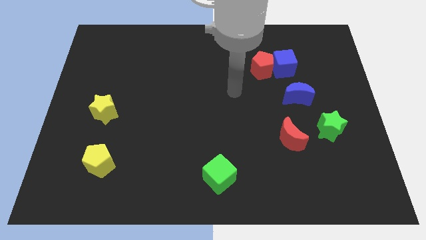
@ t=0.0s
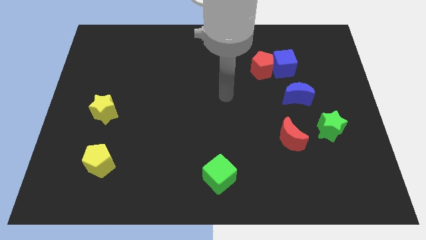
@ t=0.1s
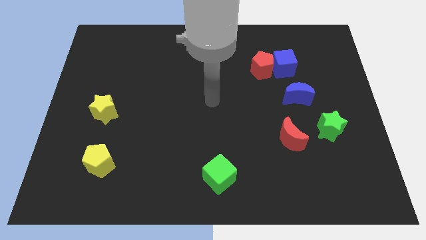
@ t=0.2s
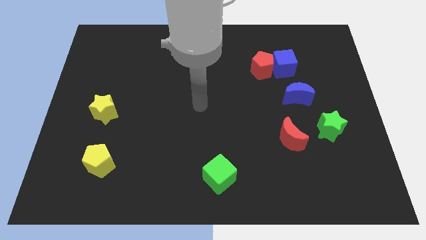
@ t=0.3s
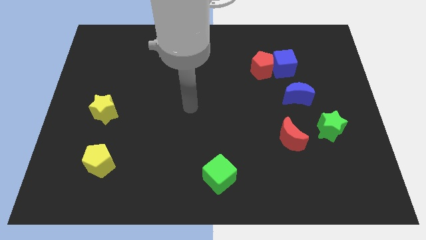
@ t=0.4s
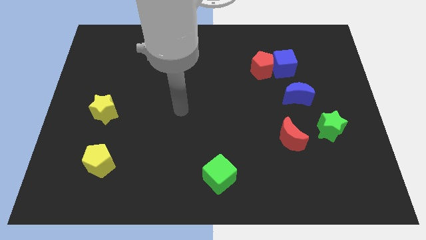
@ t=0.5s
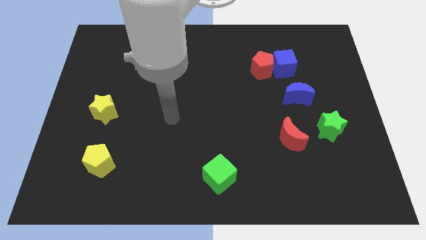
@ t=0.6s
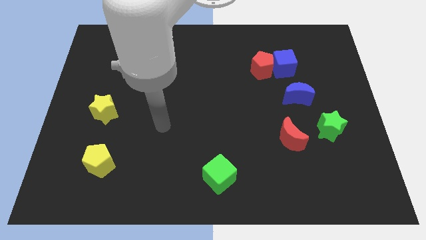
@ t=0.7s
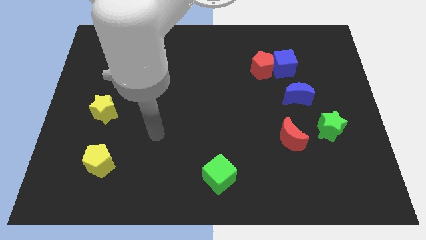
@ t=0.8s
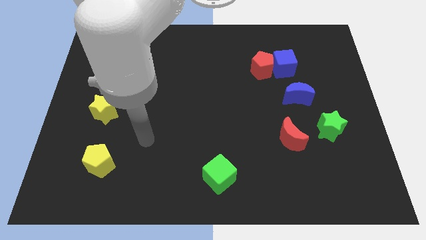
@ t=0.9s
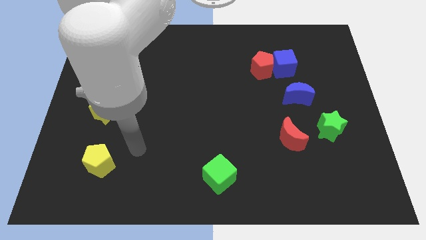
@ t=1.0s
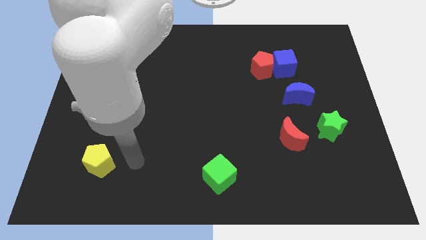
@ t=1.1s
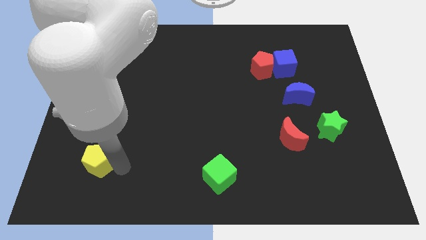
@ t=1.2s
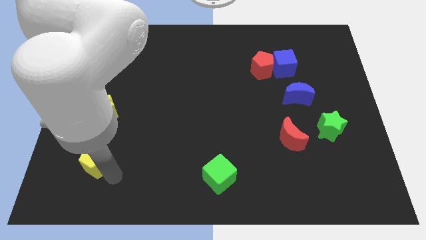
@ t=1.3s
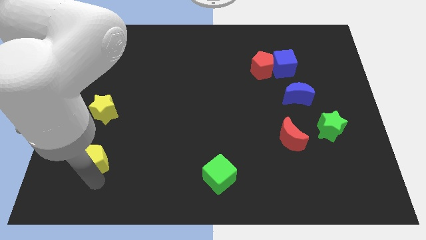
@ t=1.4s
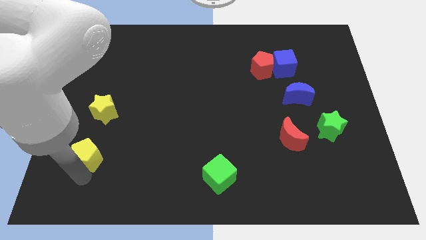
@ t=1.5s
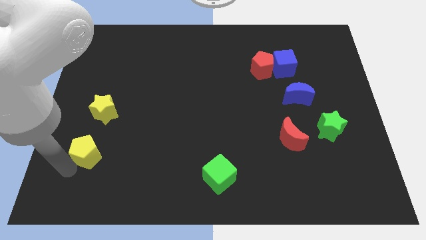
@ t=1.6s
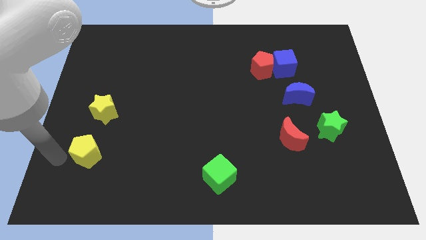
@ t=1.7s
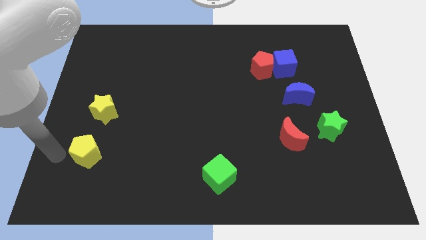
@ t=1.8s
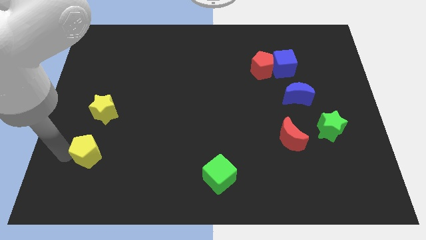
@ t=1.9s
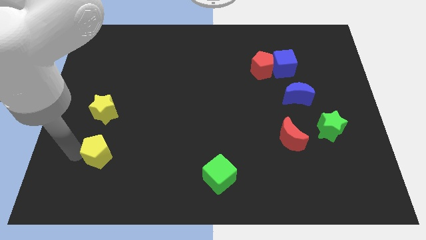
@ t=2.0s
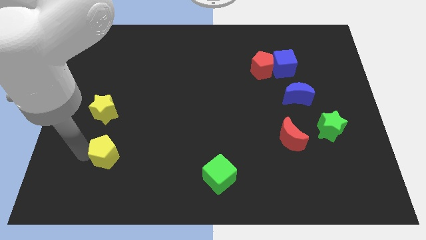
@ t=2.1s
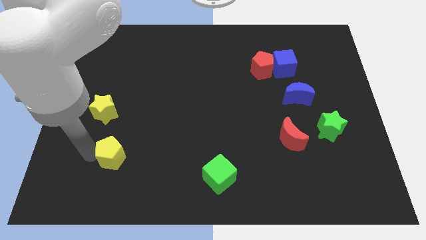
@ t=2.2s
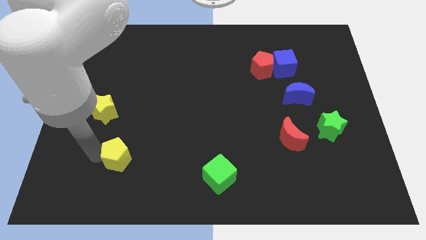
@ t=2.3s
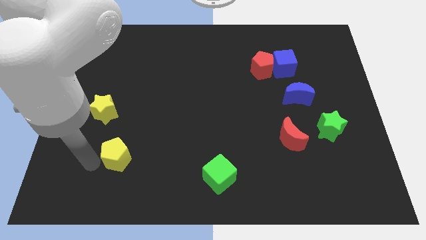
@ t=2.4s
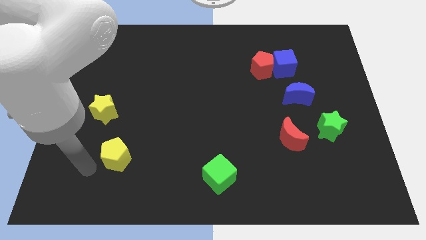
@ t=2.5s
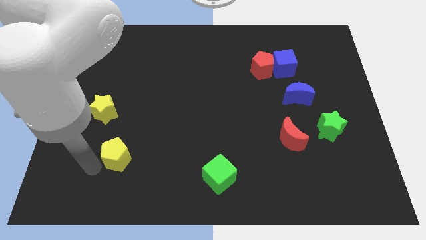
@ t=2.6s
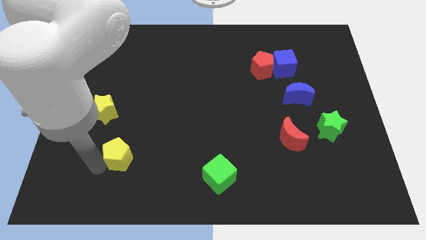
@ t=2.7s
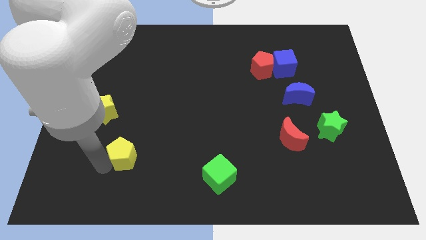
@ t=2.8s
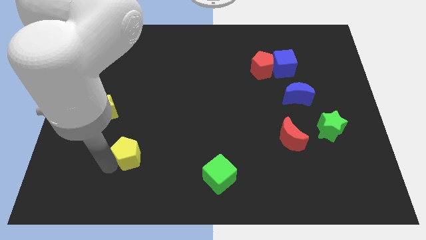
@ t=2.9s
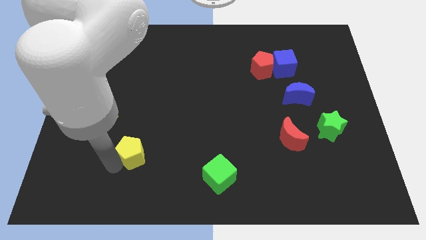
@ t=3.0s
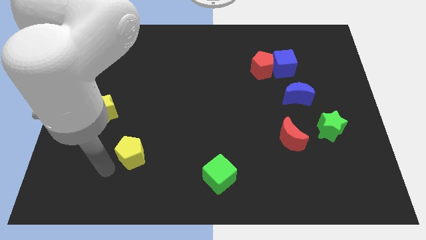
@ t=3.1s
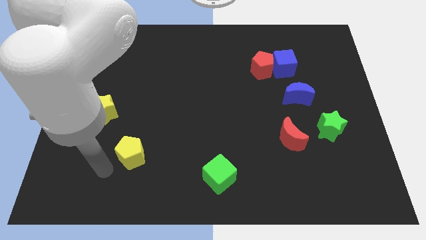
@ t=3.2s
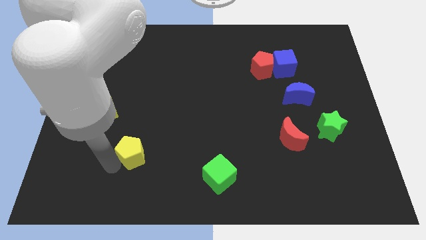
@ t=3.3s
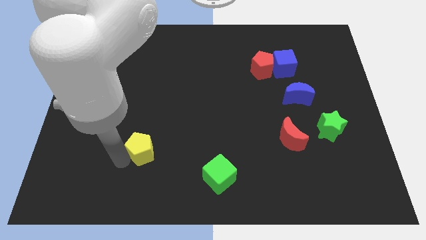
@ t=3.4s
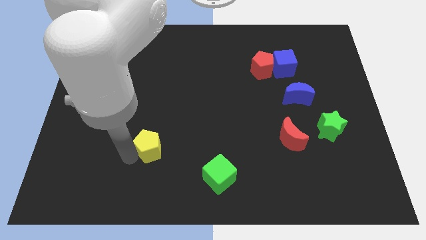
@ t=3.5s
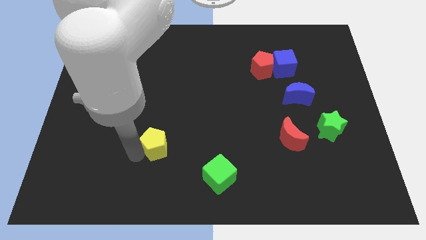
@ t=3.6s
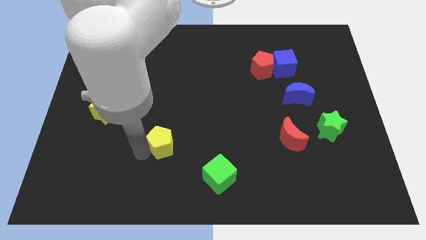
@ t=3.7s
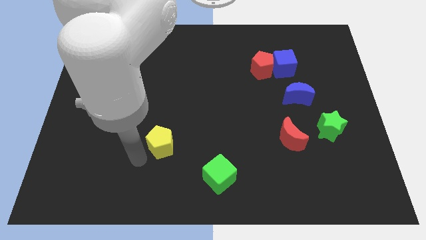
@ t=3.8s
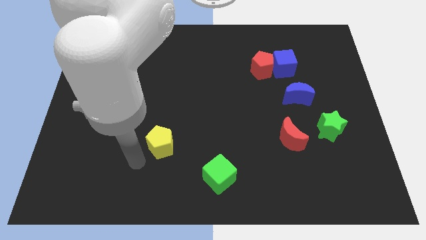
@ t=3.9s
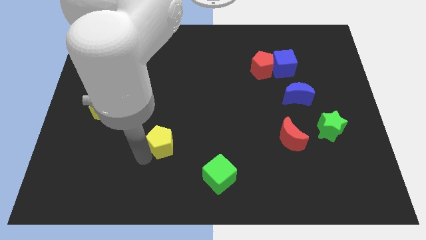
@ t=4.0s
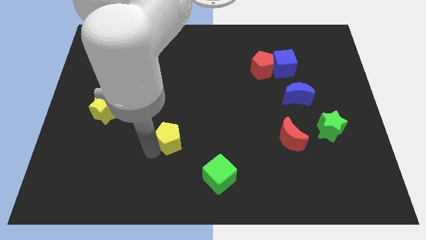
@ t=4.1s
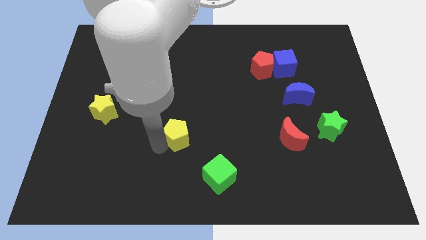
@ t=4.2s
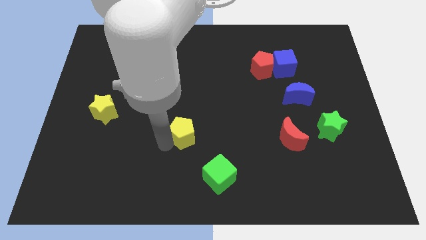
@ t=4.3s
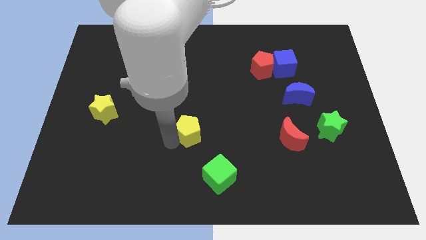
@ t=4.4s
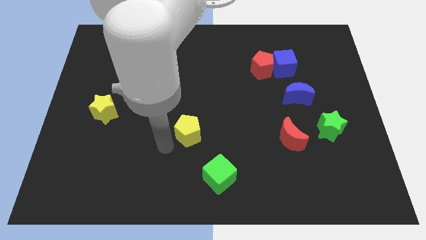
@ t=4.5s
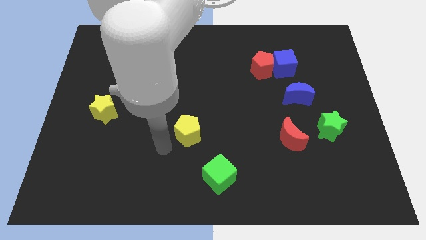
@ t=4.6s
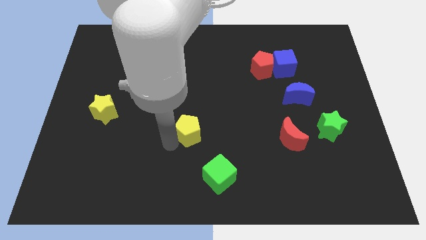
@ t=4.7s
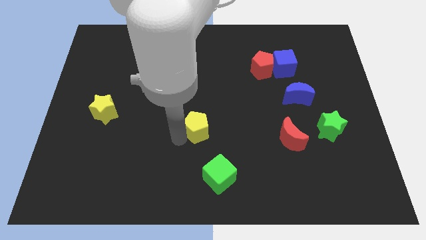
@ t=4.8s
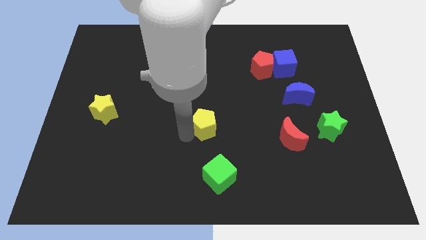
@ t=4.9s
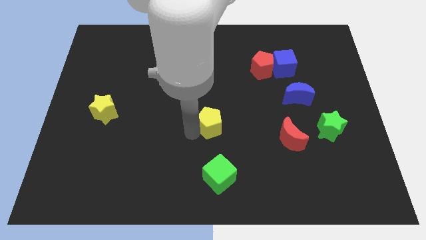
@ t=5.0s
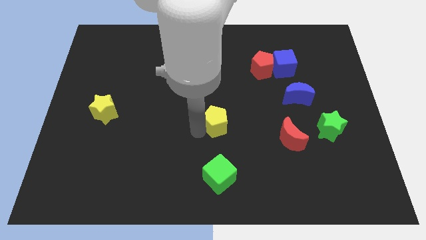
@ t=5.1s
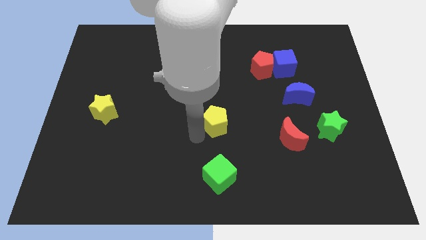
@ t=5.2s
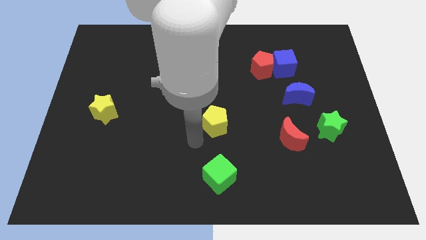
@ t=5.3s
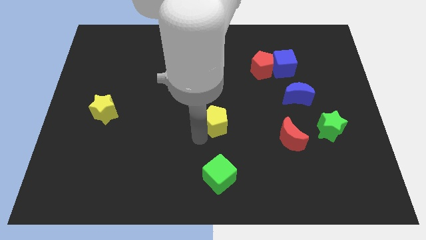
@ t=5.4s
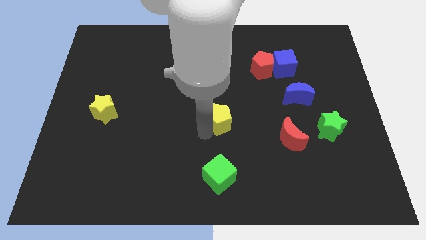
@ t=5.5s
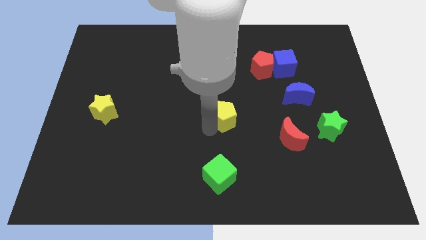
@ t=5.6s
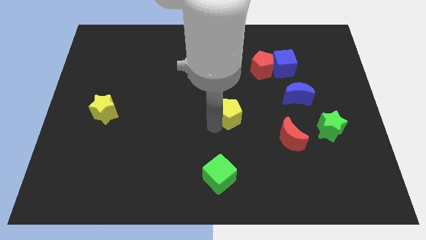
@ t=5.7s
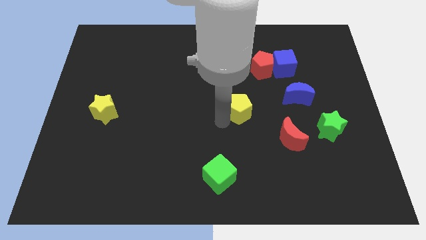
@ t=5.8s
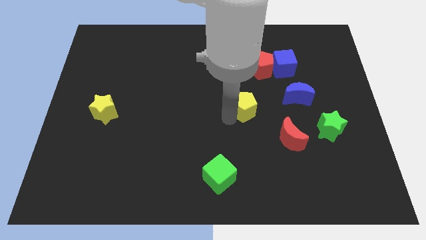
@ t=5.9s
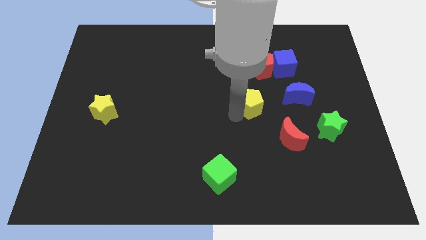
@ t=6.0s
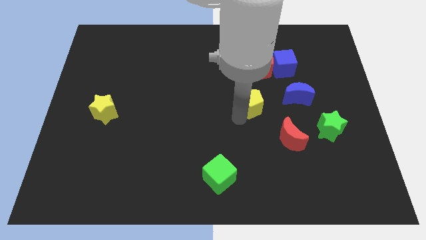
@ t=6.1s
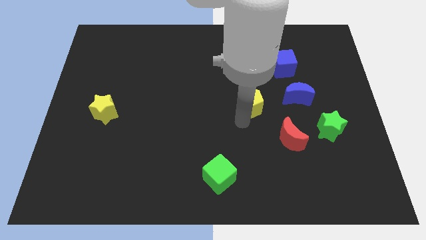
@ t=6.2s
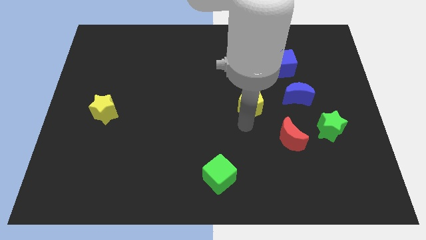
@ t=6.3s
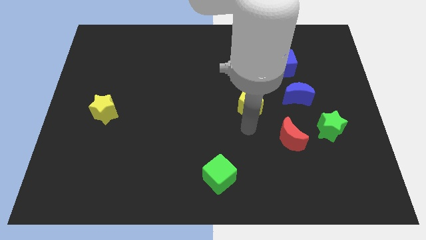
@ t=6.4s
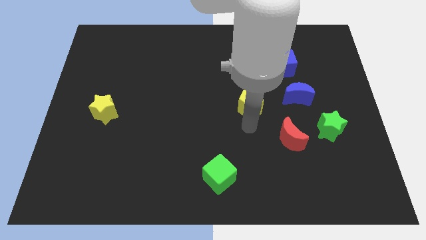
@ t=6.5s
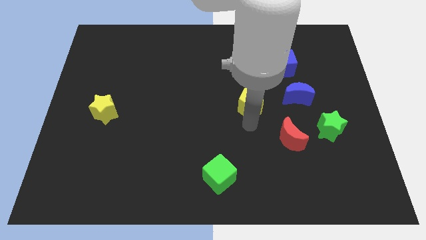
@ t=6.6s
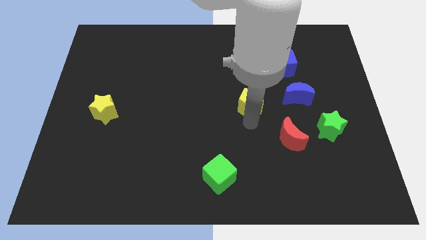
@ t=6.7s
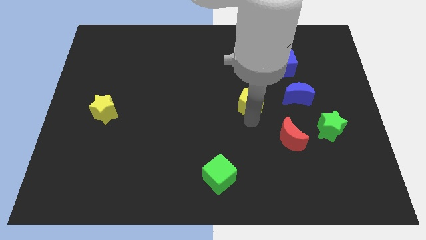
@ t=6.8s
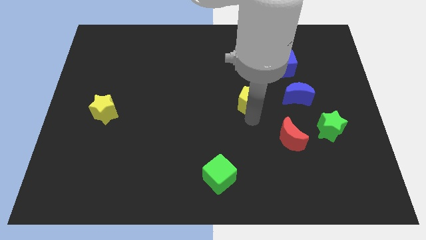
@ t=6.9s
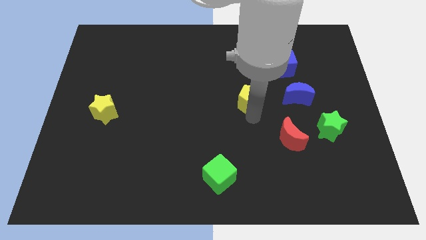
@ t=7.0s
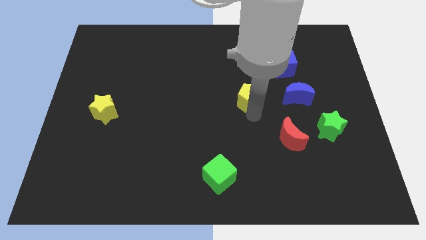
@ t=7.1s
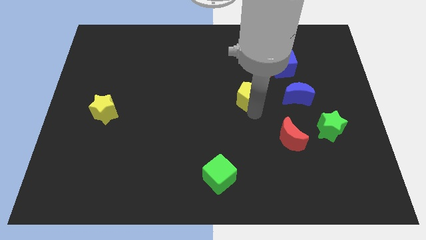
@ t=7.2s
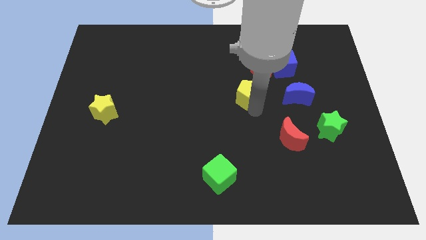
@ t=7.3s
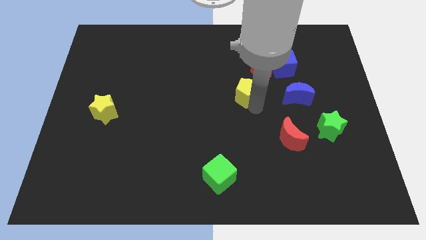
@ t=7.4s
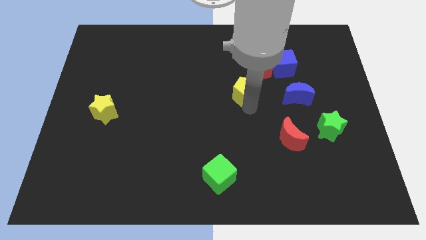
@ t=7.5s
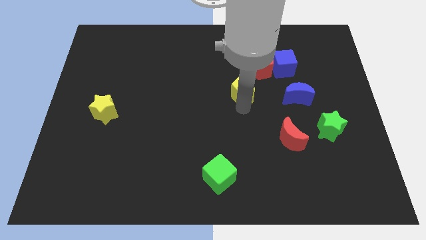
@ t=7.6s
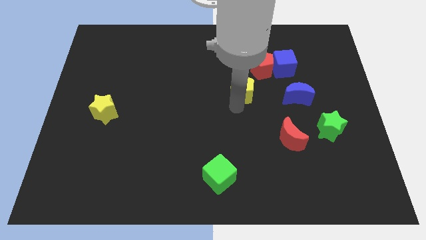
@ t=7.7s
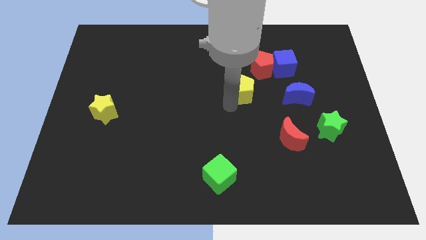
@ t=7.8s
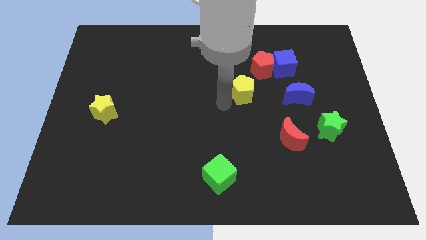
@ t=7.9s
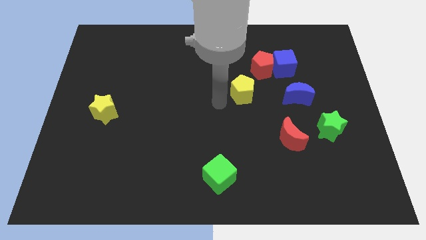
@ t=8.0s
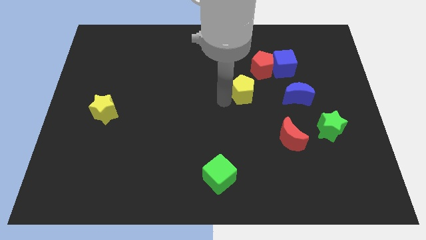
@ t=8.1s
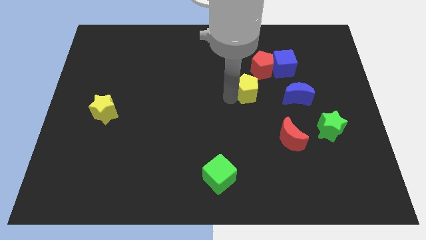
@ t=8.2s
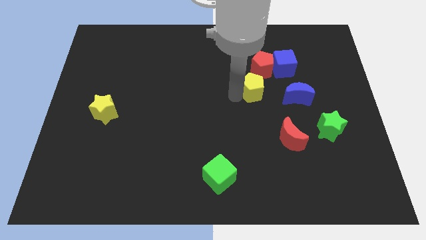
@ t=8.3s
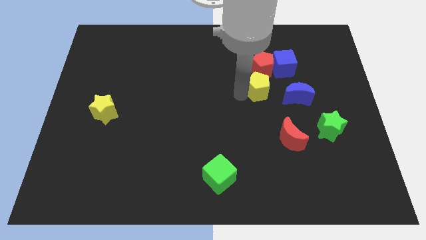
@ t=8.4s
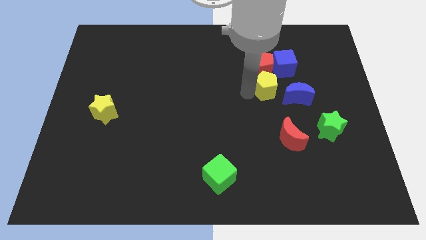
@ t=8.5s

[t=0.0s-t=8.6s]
slide the yellow pentagon to the top left side of the blue moon
